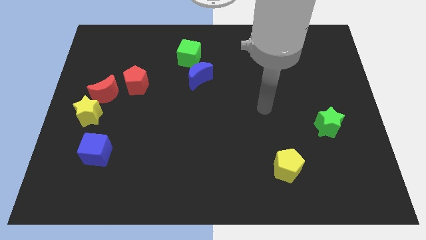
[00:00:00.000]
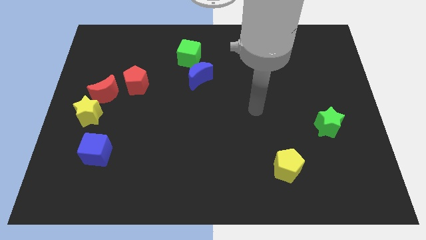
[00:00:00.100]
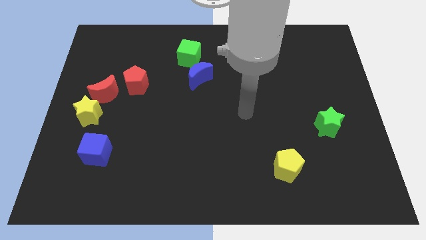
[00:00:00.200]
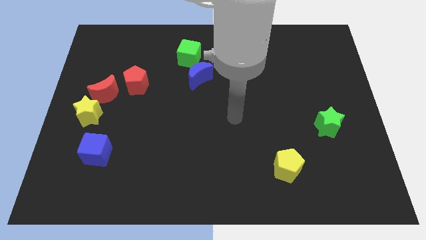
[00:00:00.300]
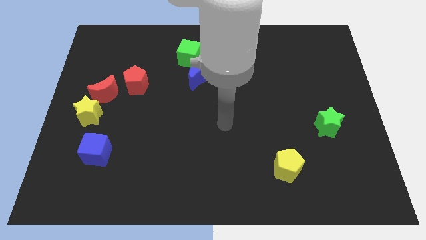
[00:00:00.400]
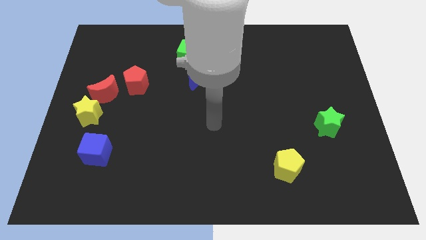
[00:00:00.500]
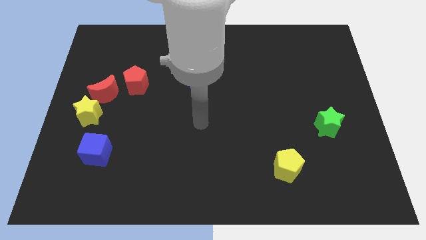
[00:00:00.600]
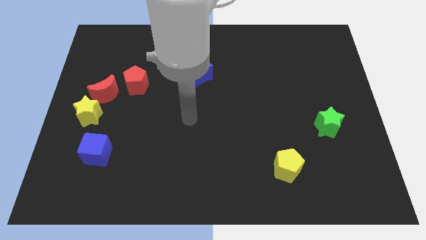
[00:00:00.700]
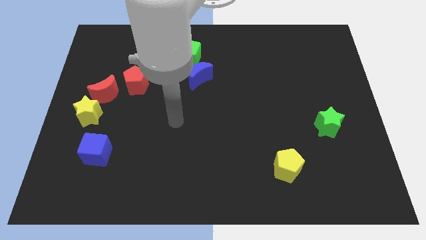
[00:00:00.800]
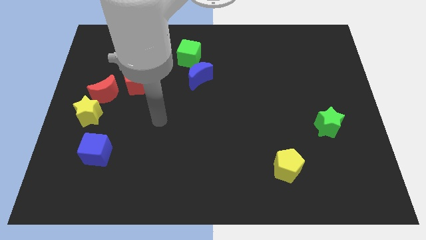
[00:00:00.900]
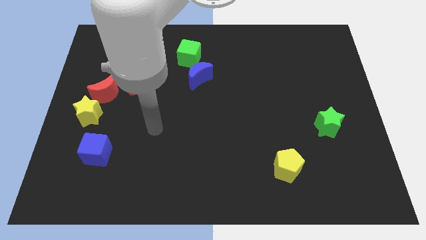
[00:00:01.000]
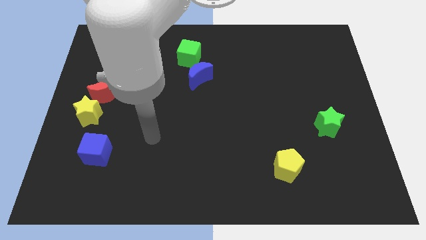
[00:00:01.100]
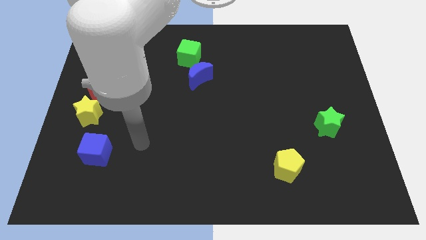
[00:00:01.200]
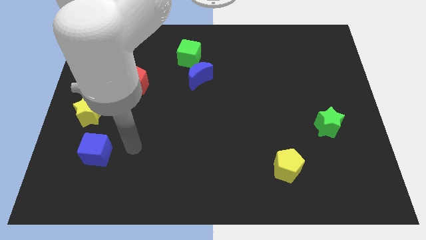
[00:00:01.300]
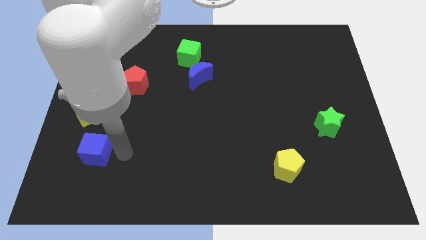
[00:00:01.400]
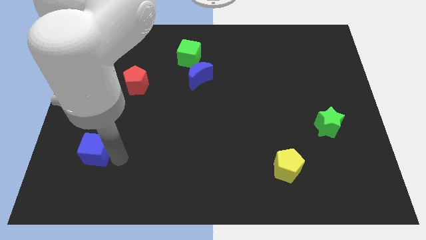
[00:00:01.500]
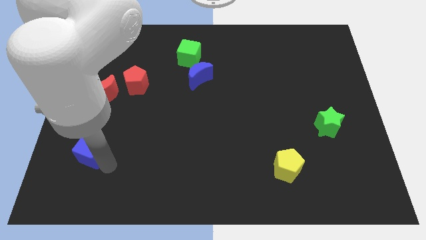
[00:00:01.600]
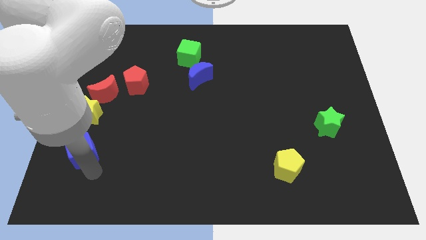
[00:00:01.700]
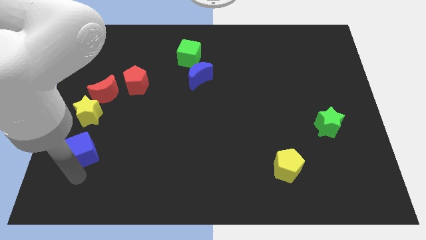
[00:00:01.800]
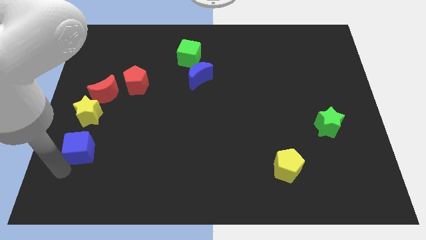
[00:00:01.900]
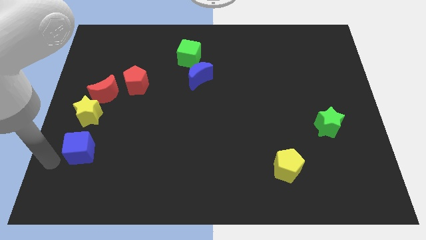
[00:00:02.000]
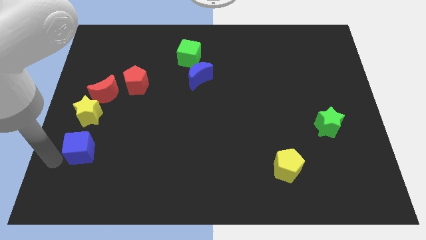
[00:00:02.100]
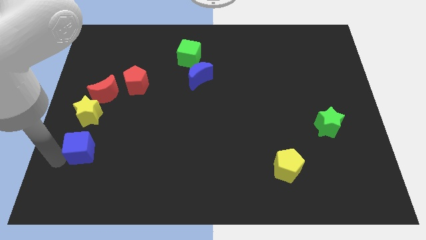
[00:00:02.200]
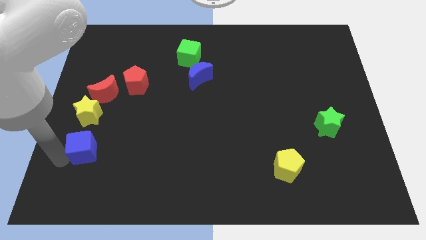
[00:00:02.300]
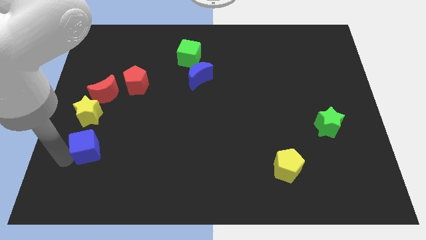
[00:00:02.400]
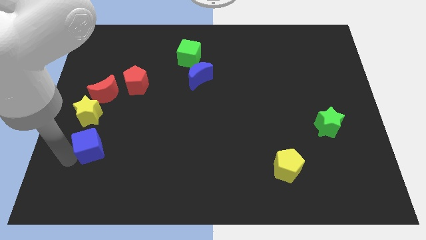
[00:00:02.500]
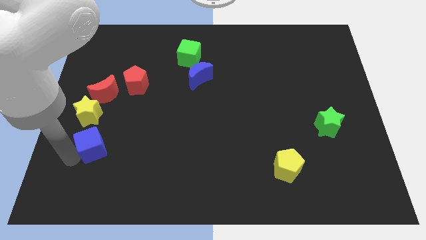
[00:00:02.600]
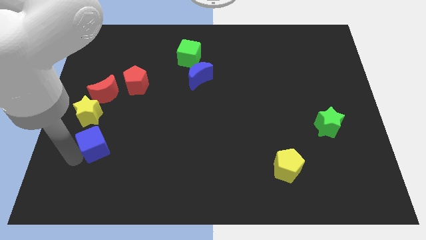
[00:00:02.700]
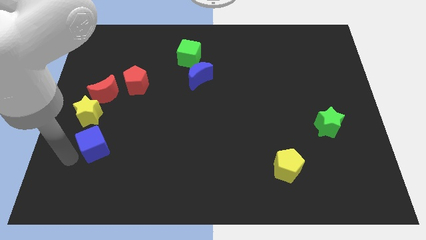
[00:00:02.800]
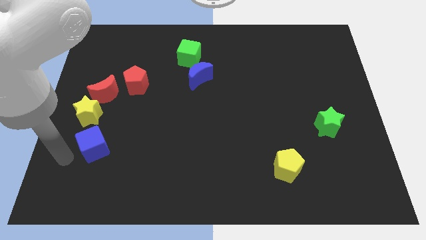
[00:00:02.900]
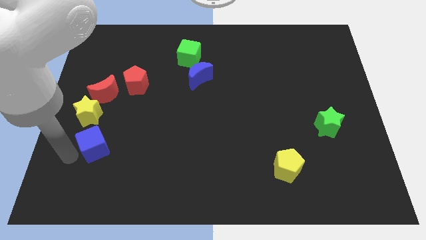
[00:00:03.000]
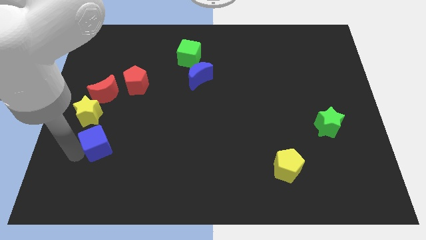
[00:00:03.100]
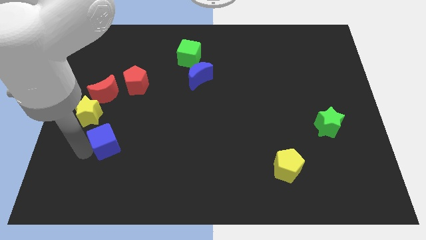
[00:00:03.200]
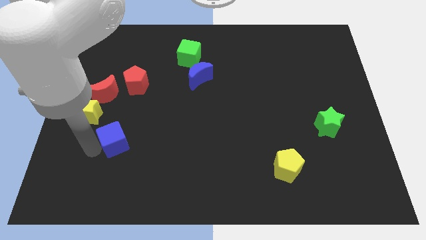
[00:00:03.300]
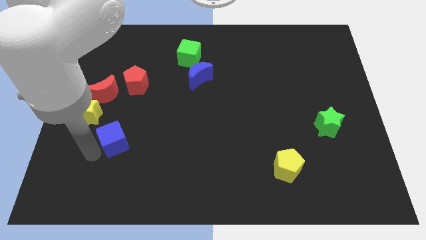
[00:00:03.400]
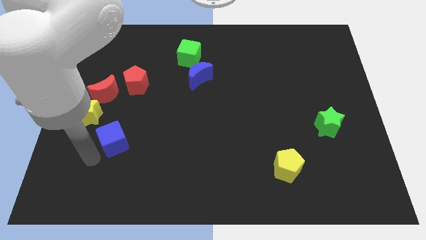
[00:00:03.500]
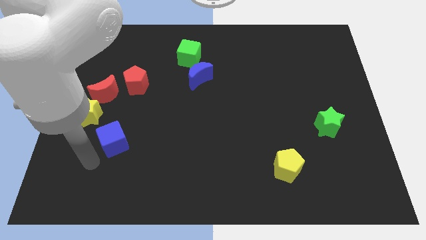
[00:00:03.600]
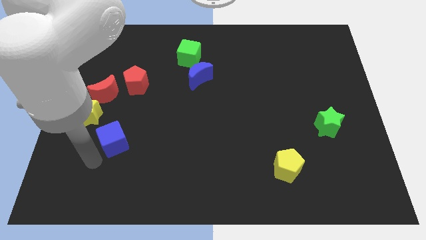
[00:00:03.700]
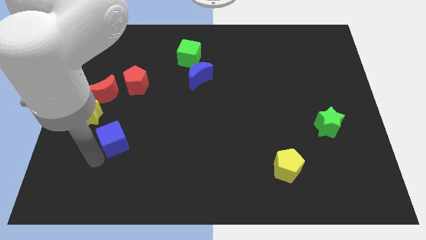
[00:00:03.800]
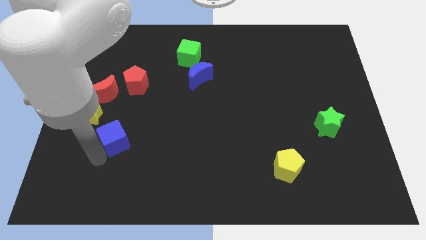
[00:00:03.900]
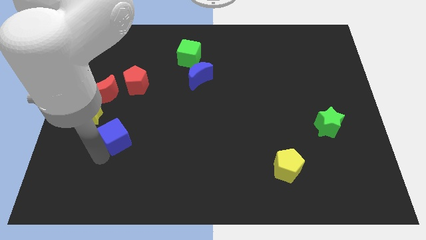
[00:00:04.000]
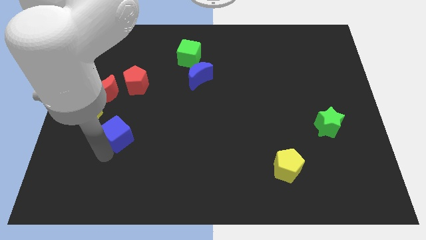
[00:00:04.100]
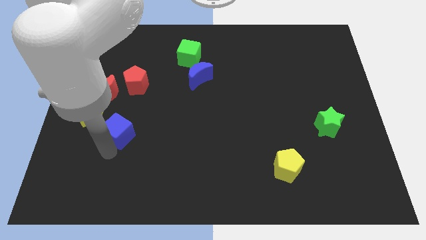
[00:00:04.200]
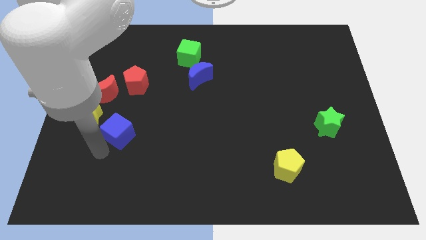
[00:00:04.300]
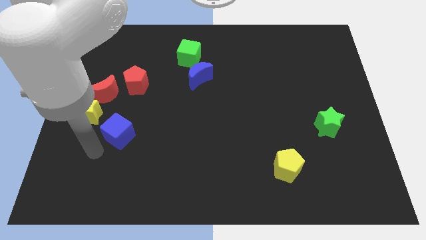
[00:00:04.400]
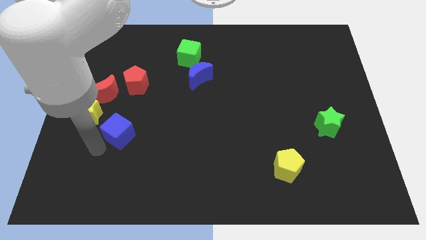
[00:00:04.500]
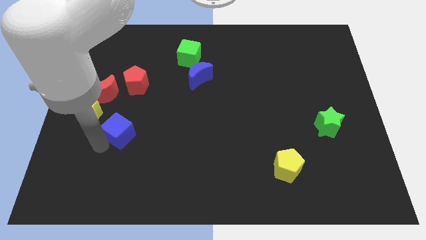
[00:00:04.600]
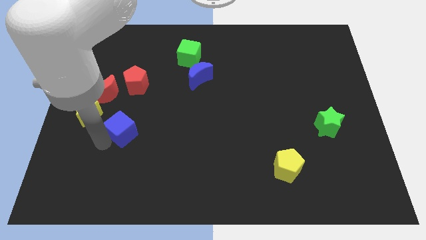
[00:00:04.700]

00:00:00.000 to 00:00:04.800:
move the blue cube somewhat upwards and to the right diagonally

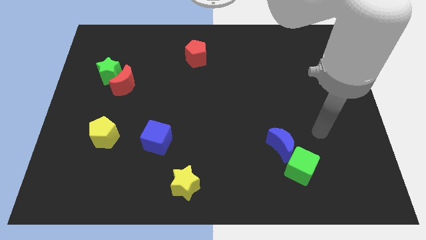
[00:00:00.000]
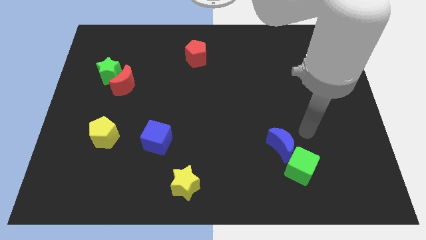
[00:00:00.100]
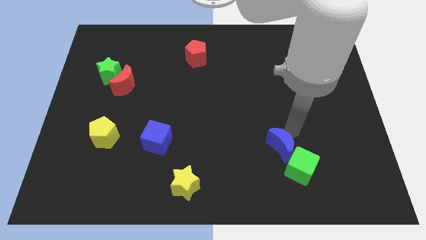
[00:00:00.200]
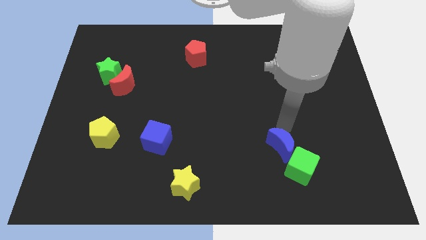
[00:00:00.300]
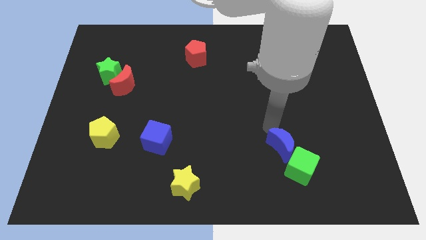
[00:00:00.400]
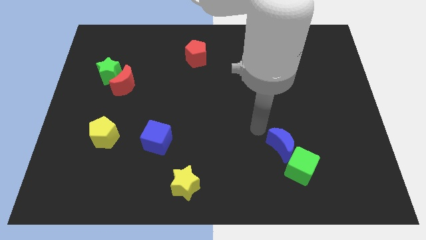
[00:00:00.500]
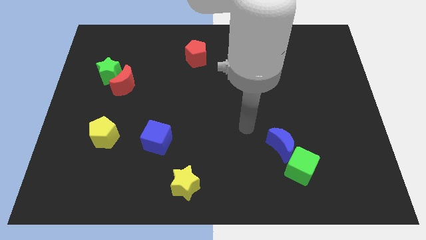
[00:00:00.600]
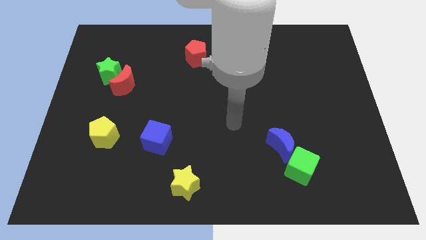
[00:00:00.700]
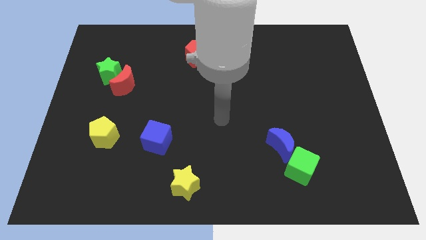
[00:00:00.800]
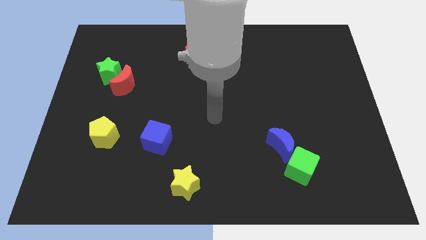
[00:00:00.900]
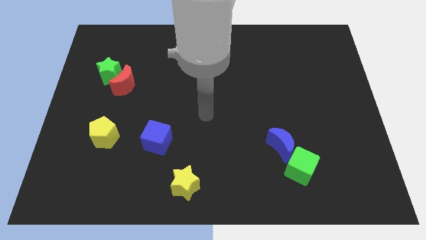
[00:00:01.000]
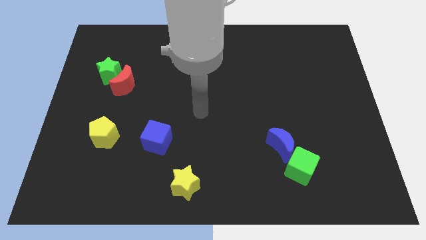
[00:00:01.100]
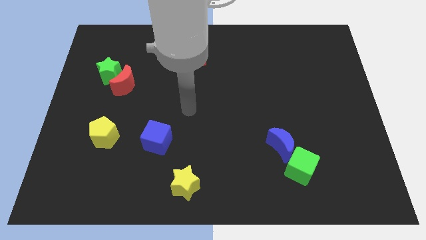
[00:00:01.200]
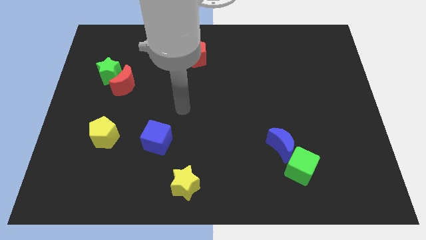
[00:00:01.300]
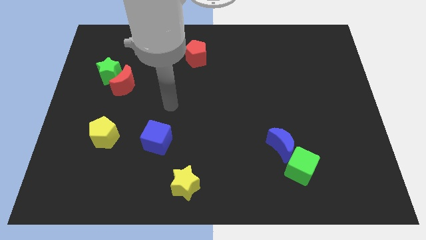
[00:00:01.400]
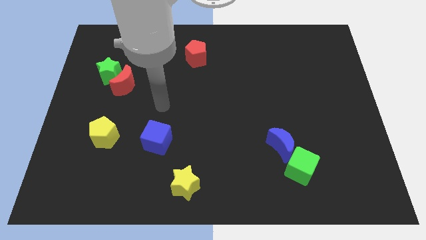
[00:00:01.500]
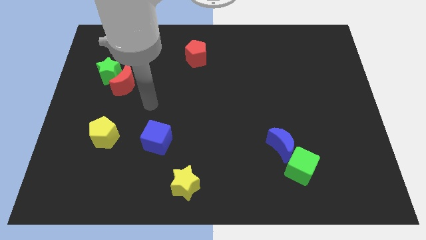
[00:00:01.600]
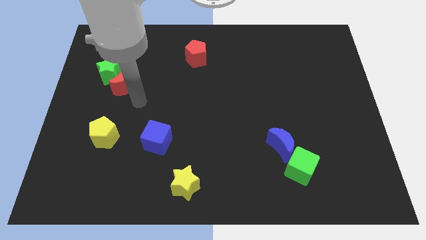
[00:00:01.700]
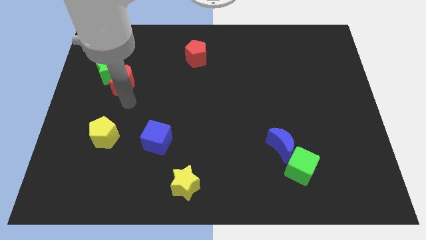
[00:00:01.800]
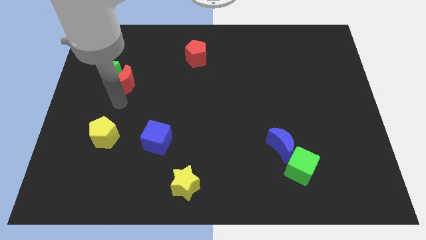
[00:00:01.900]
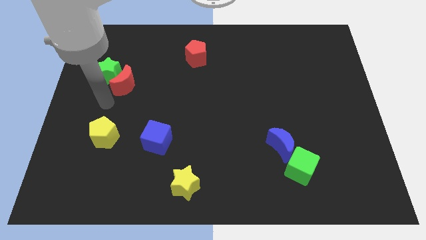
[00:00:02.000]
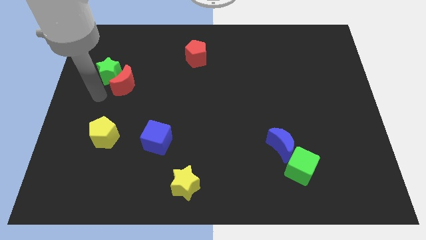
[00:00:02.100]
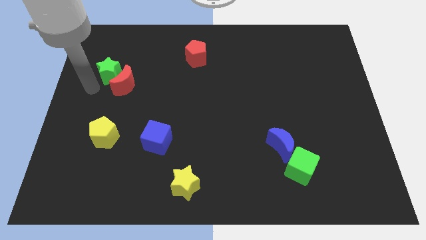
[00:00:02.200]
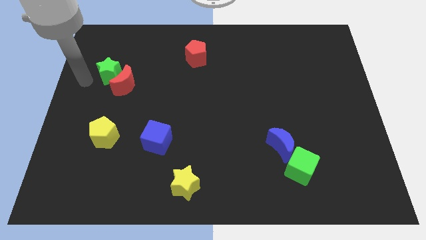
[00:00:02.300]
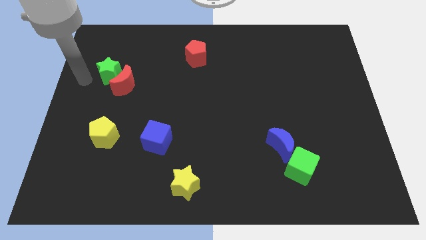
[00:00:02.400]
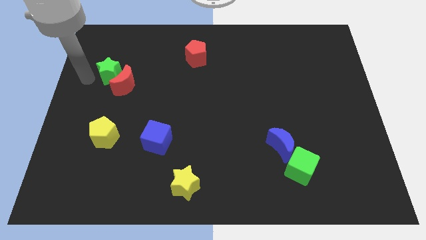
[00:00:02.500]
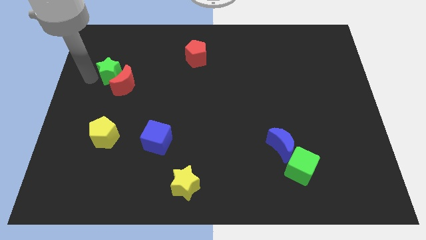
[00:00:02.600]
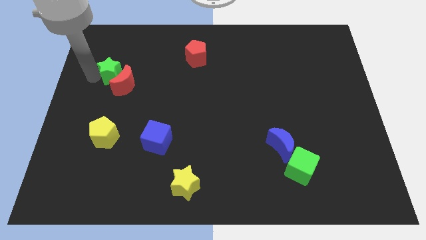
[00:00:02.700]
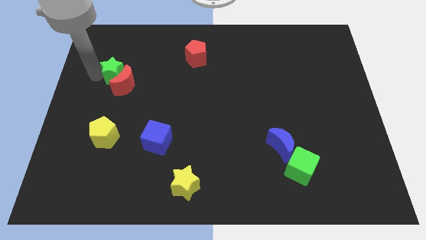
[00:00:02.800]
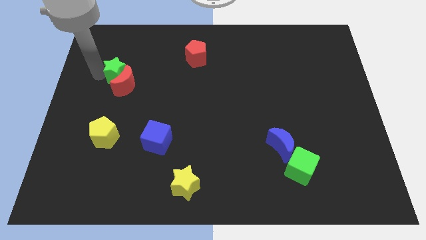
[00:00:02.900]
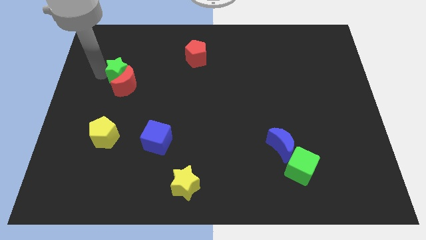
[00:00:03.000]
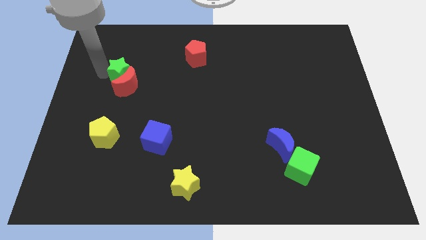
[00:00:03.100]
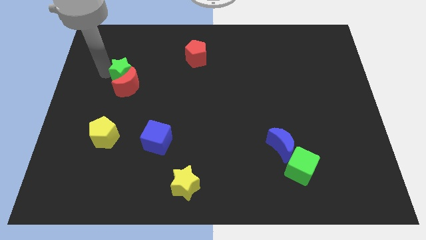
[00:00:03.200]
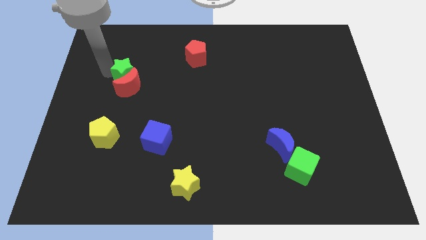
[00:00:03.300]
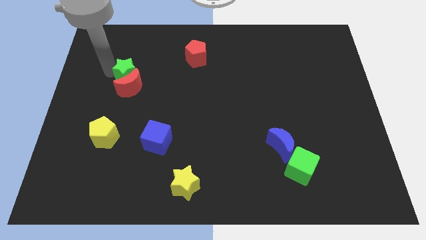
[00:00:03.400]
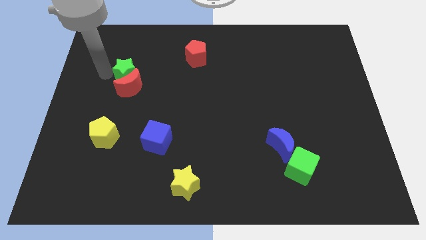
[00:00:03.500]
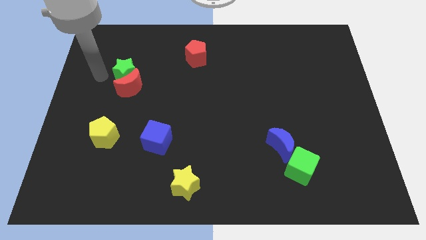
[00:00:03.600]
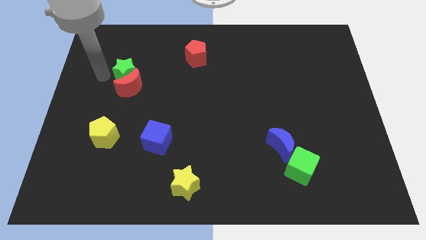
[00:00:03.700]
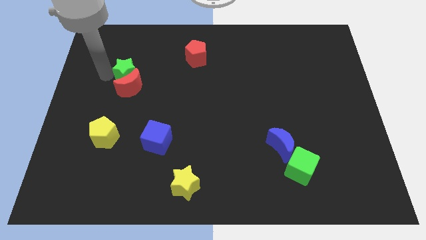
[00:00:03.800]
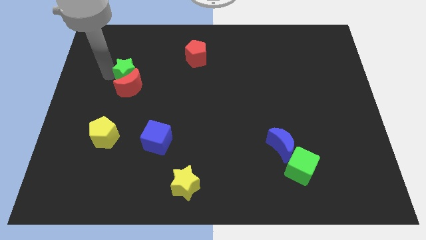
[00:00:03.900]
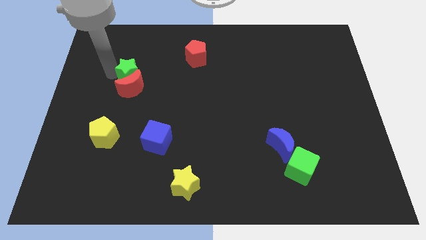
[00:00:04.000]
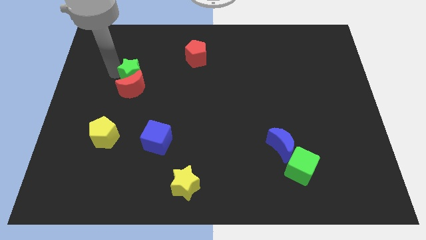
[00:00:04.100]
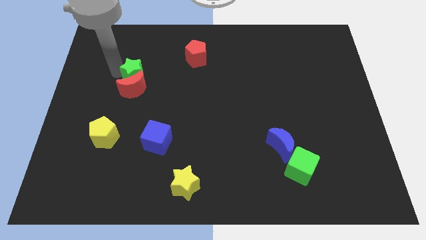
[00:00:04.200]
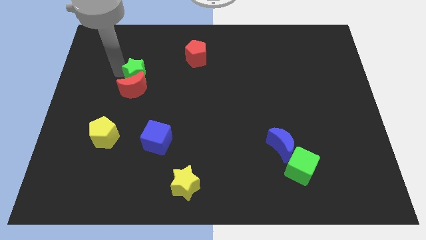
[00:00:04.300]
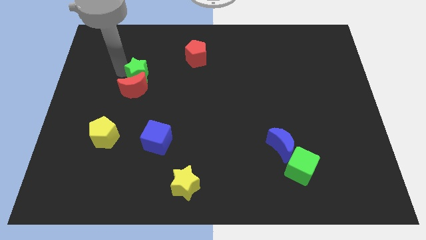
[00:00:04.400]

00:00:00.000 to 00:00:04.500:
push the green star to the right a bit
